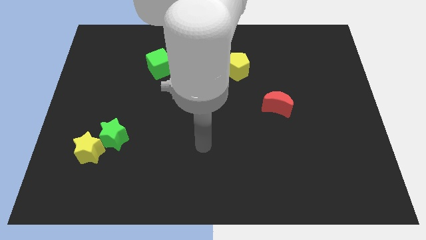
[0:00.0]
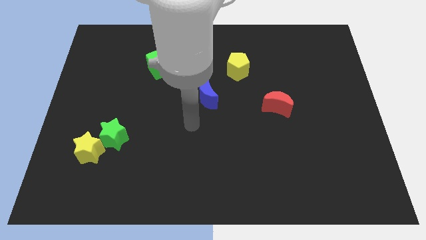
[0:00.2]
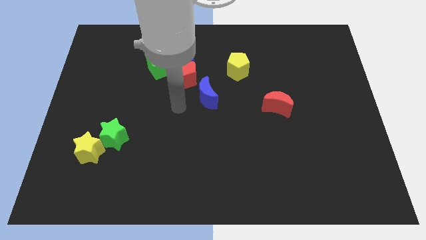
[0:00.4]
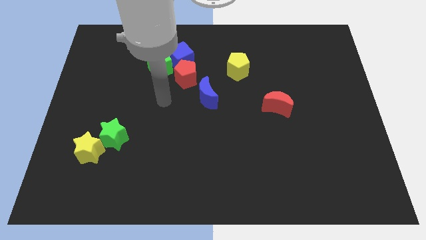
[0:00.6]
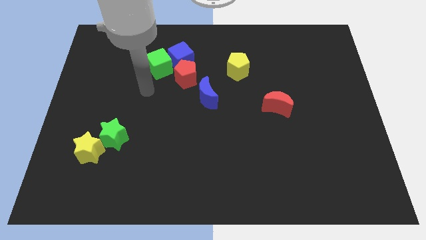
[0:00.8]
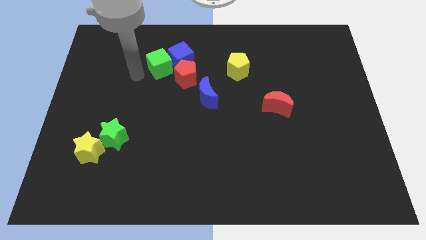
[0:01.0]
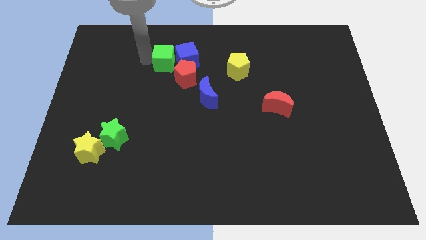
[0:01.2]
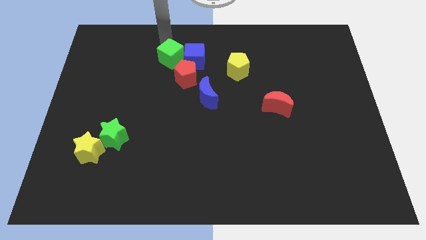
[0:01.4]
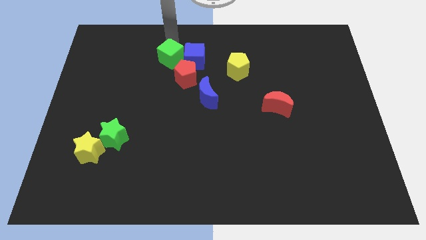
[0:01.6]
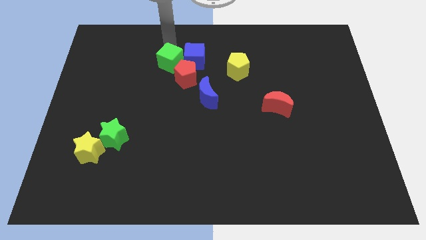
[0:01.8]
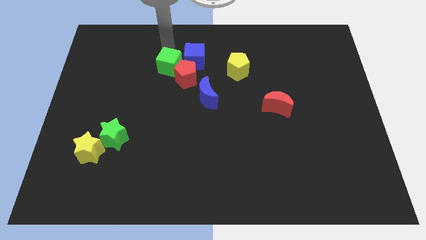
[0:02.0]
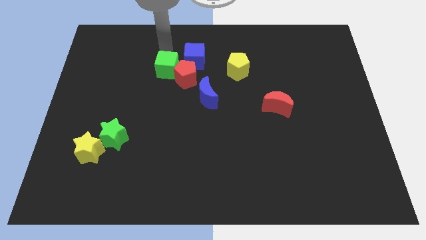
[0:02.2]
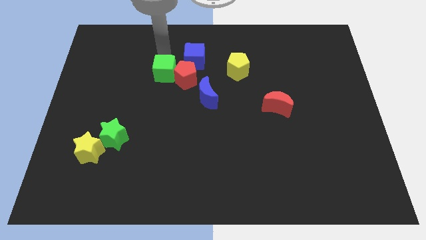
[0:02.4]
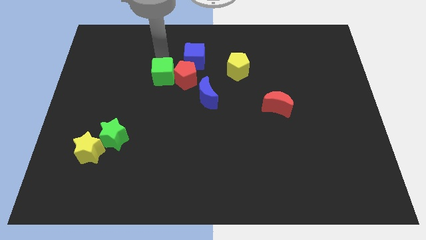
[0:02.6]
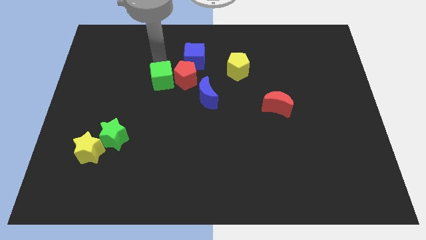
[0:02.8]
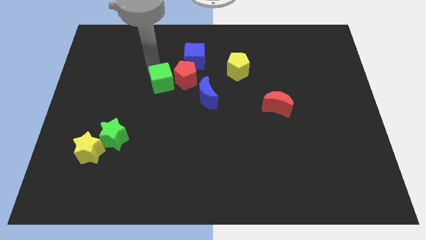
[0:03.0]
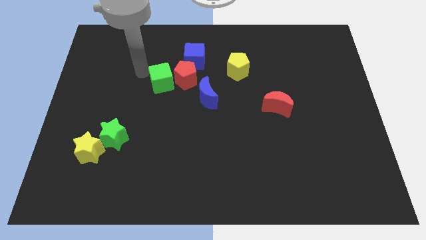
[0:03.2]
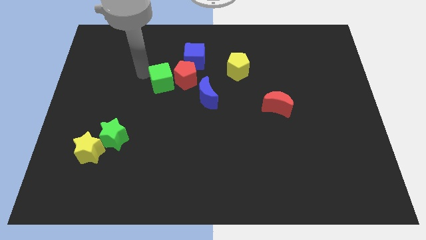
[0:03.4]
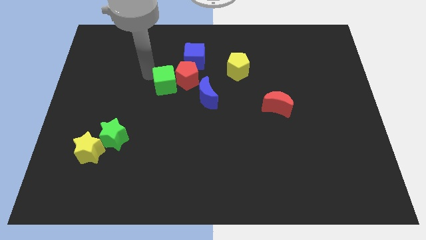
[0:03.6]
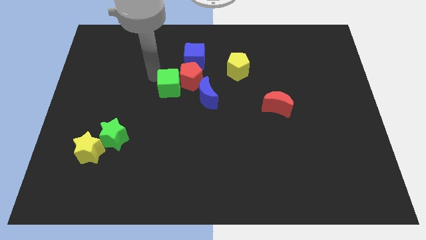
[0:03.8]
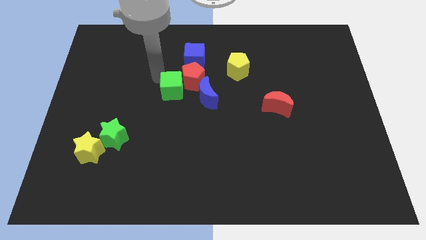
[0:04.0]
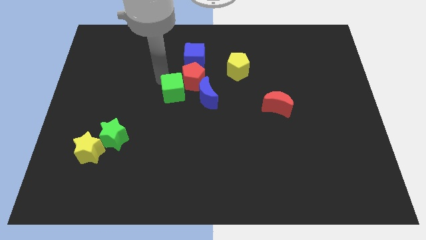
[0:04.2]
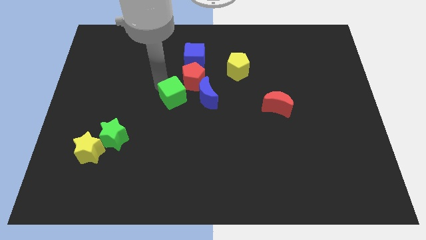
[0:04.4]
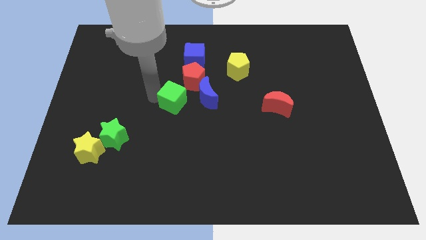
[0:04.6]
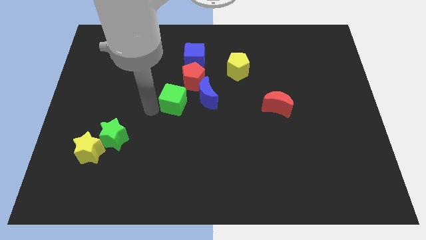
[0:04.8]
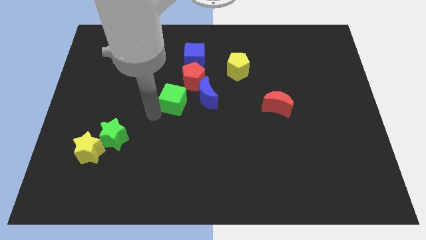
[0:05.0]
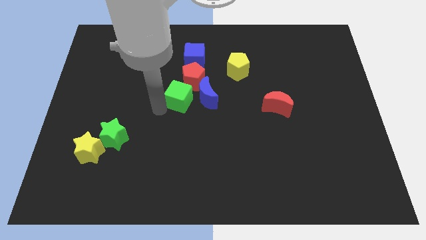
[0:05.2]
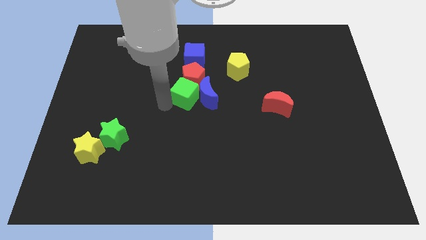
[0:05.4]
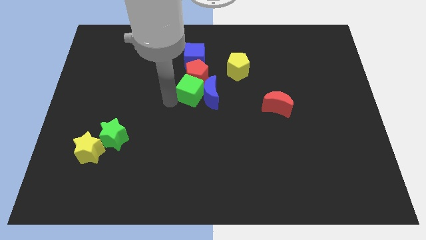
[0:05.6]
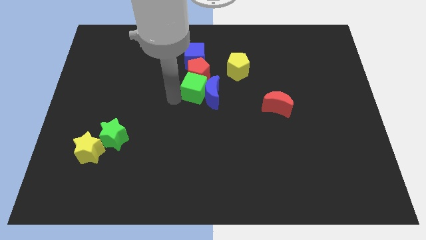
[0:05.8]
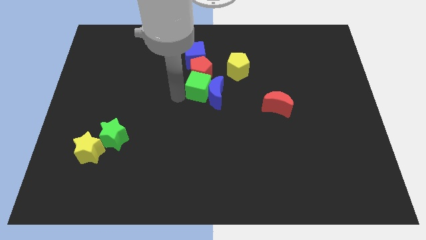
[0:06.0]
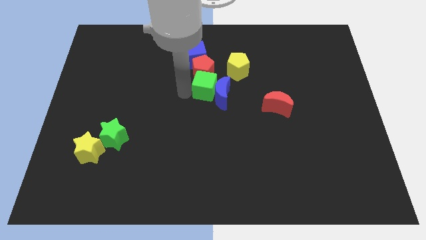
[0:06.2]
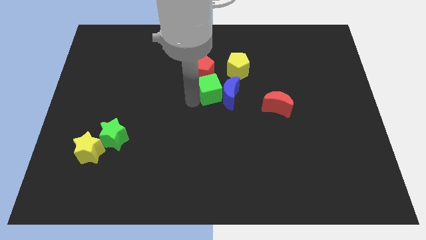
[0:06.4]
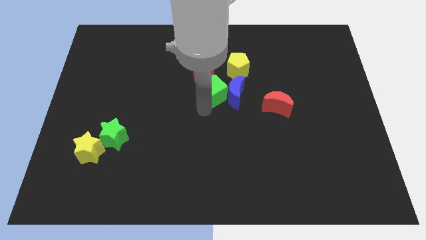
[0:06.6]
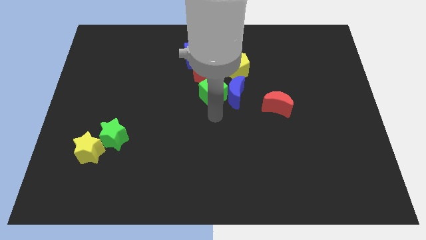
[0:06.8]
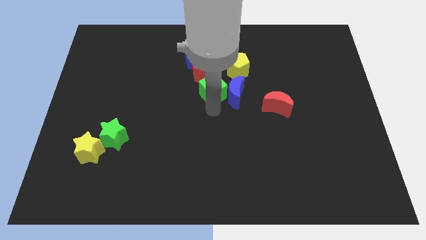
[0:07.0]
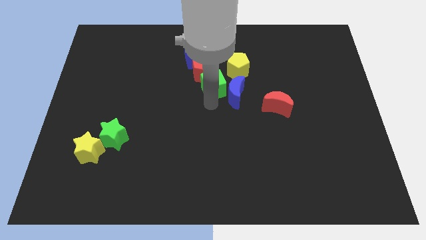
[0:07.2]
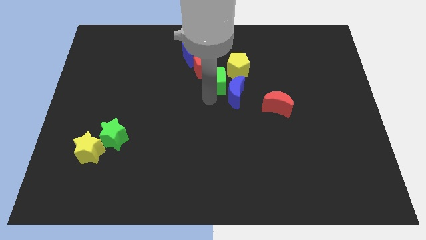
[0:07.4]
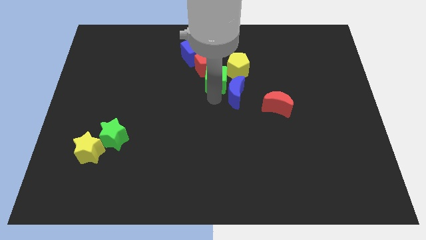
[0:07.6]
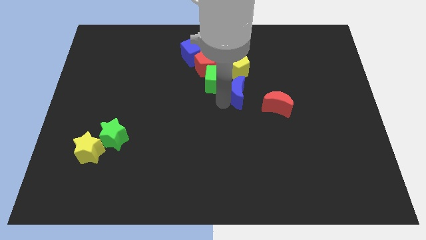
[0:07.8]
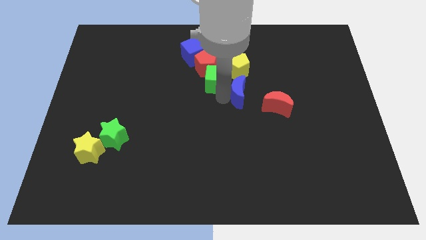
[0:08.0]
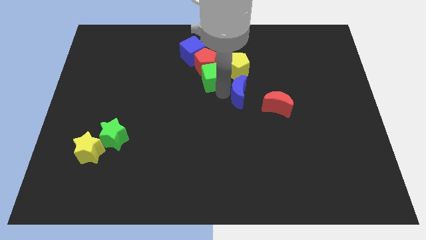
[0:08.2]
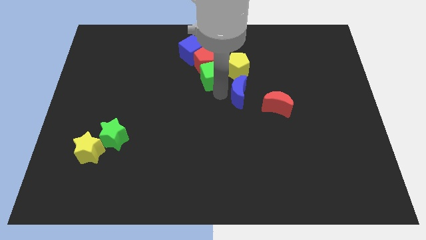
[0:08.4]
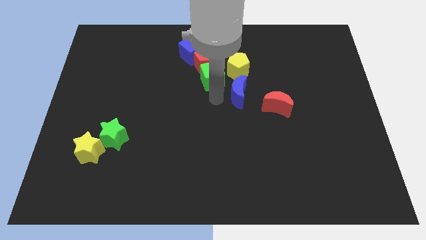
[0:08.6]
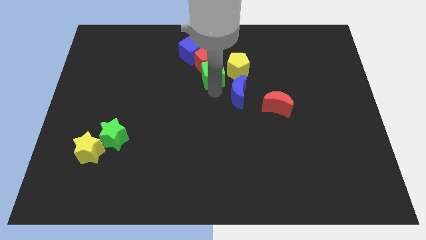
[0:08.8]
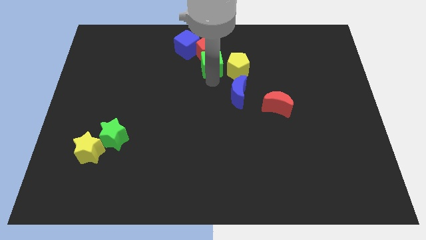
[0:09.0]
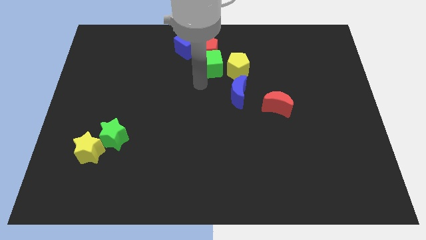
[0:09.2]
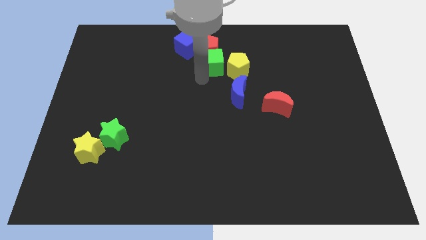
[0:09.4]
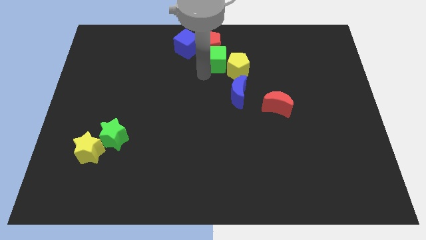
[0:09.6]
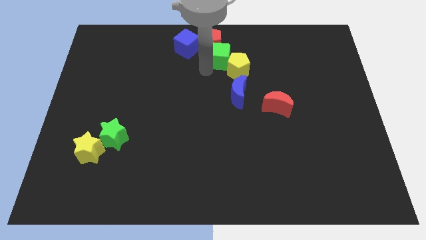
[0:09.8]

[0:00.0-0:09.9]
move the green cube to the right side of the blue cube

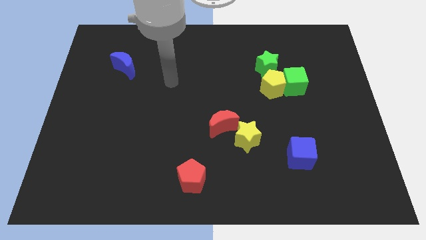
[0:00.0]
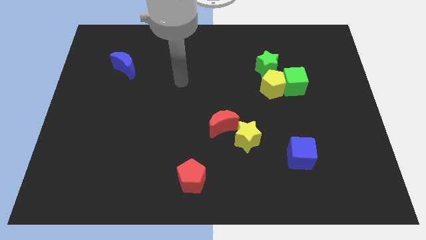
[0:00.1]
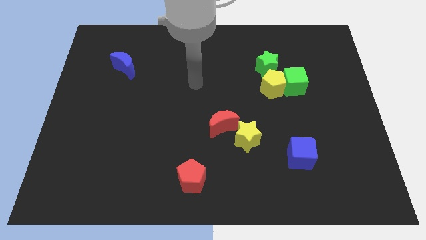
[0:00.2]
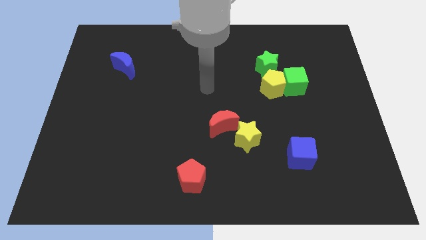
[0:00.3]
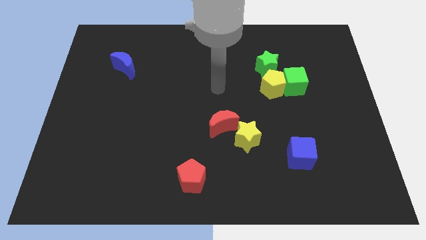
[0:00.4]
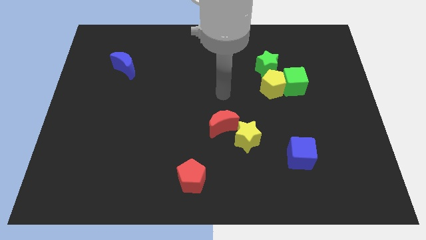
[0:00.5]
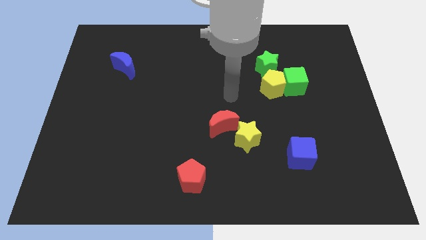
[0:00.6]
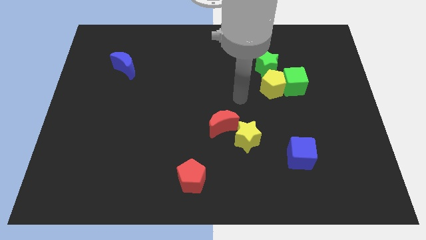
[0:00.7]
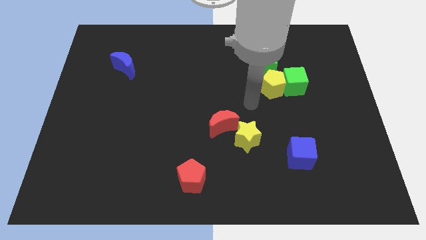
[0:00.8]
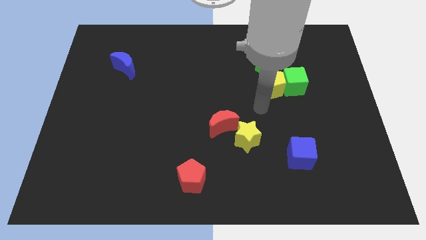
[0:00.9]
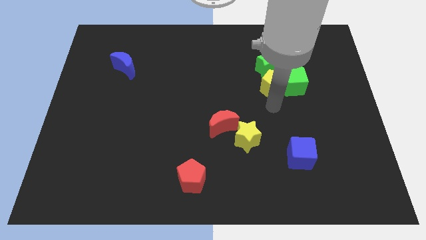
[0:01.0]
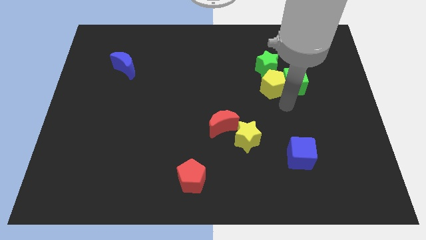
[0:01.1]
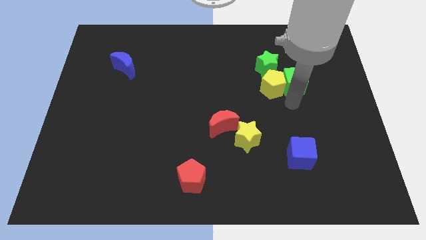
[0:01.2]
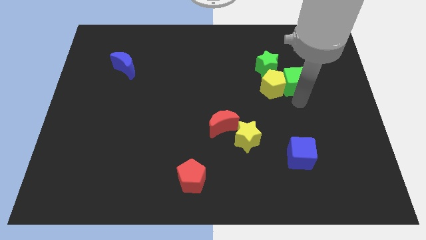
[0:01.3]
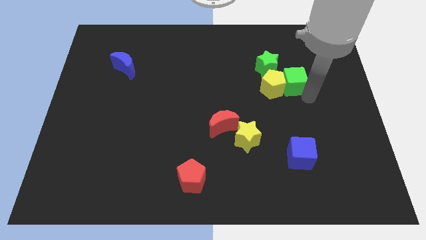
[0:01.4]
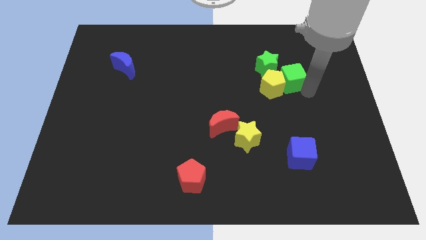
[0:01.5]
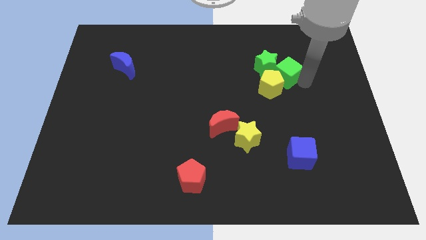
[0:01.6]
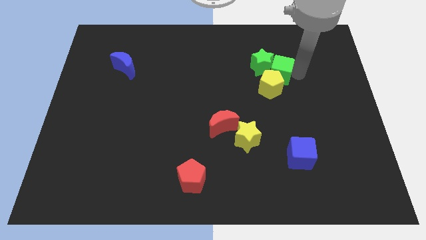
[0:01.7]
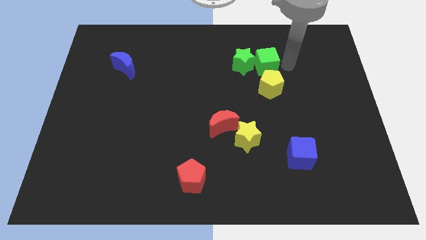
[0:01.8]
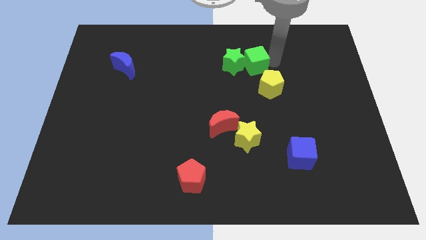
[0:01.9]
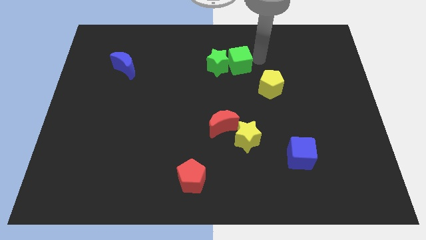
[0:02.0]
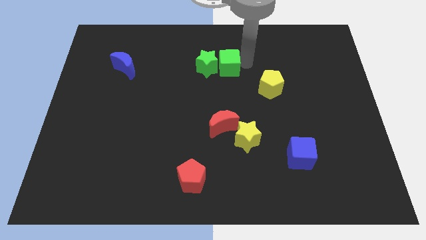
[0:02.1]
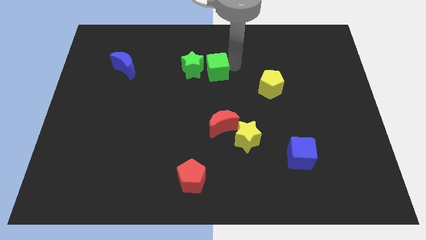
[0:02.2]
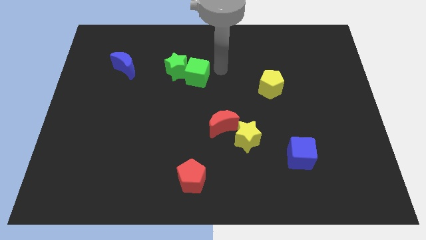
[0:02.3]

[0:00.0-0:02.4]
push the green star to the right of the blue moon
